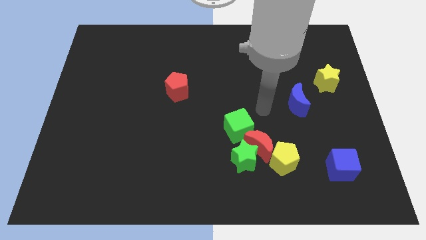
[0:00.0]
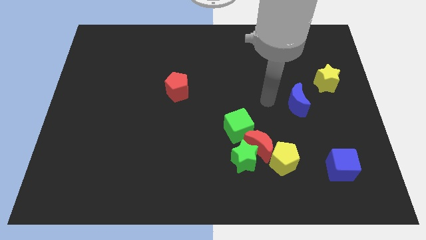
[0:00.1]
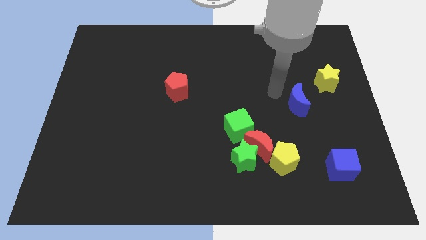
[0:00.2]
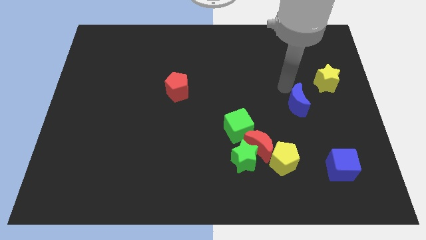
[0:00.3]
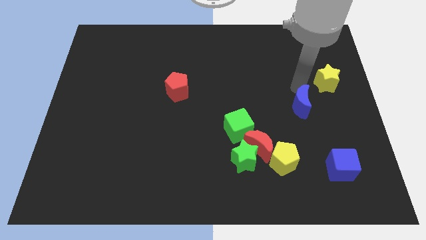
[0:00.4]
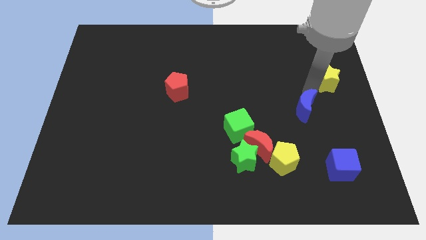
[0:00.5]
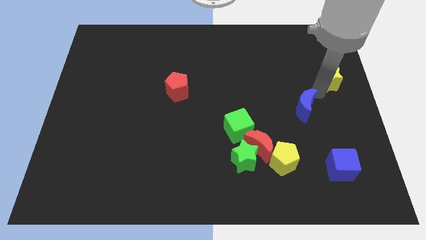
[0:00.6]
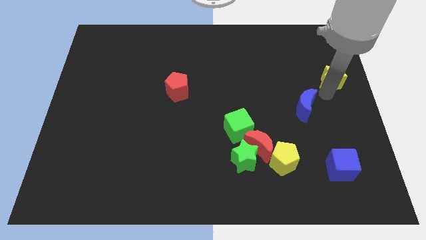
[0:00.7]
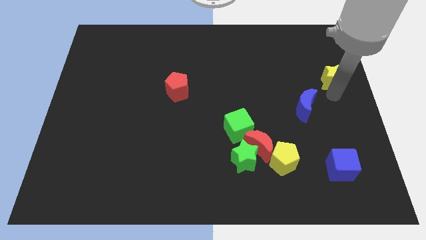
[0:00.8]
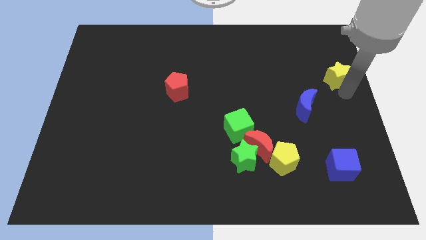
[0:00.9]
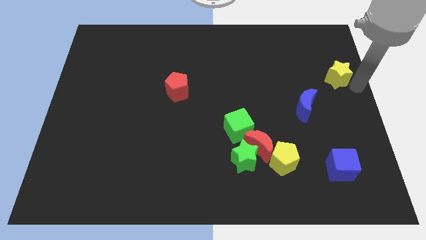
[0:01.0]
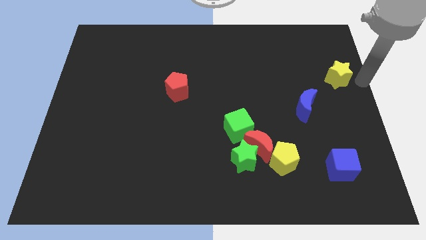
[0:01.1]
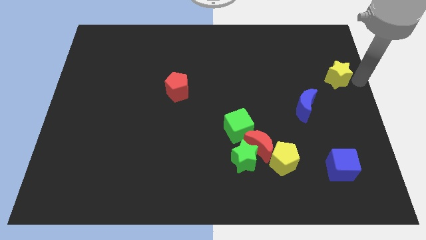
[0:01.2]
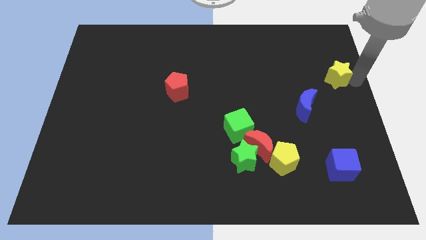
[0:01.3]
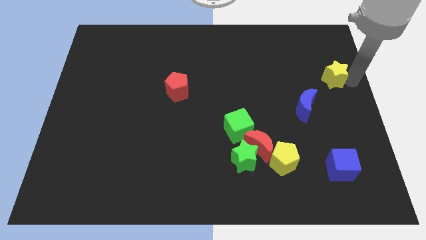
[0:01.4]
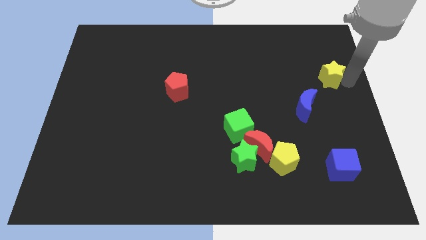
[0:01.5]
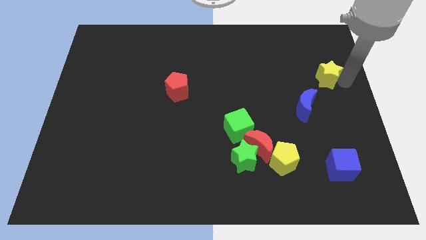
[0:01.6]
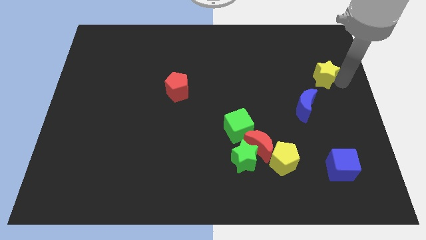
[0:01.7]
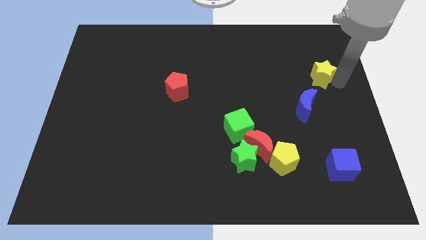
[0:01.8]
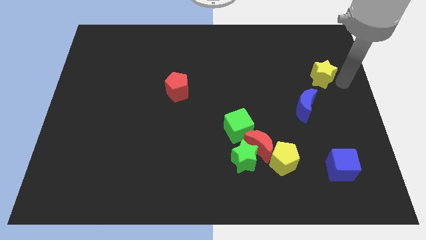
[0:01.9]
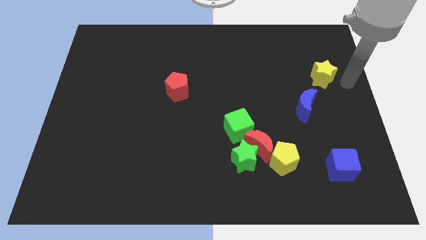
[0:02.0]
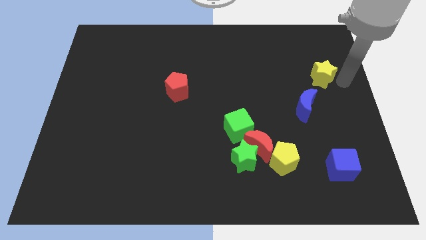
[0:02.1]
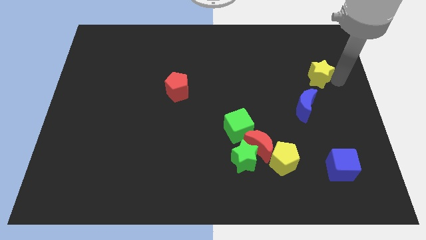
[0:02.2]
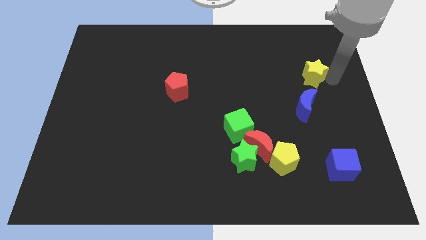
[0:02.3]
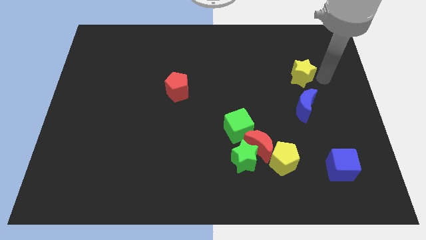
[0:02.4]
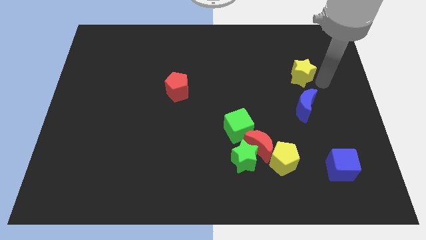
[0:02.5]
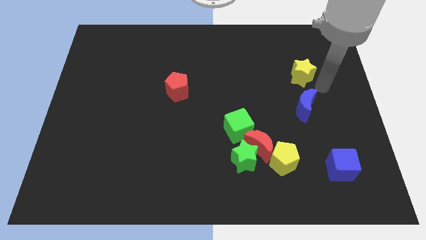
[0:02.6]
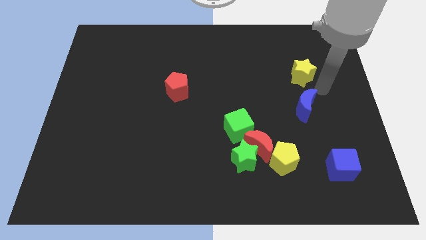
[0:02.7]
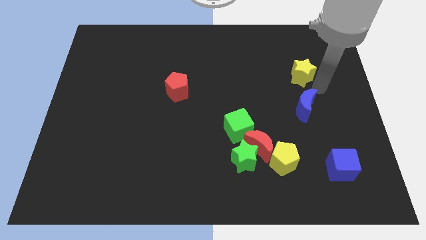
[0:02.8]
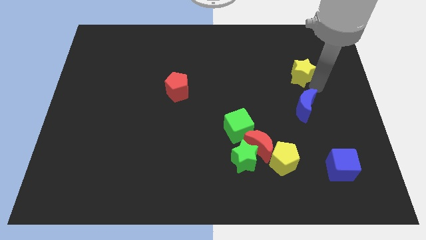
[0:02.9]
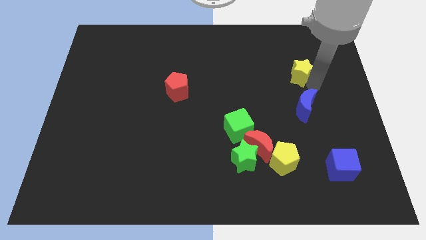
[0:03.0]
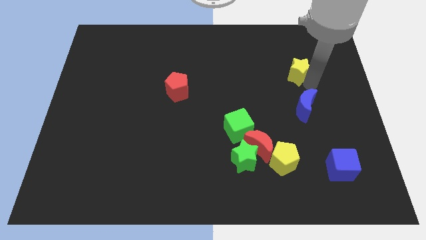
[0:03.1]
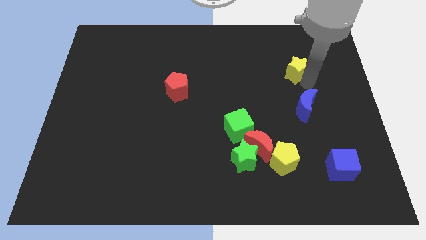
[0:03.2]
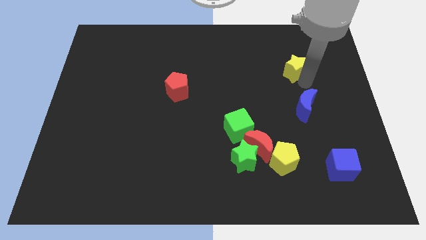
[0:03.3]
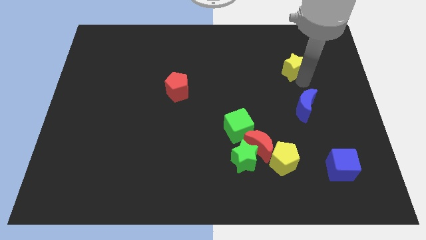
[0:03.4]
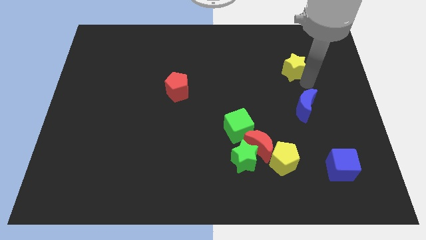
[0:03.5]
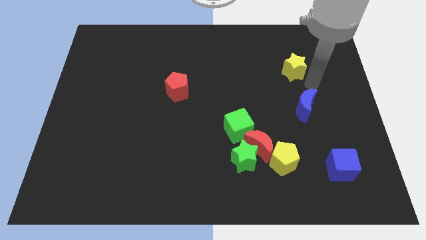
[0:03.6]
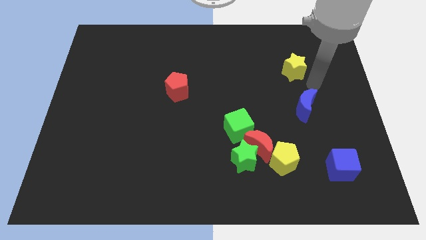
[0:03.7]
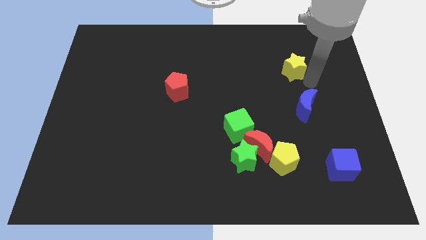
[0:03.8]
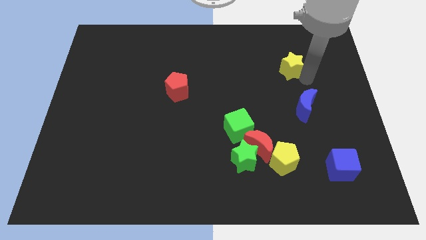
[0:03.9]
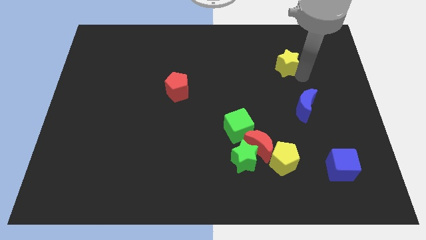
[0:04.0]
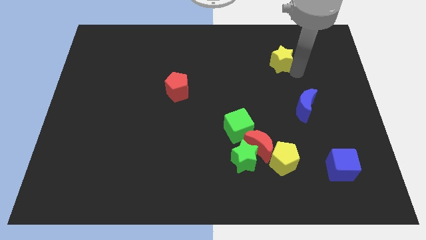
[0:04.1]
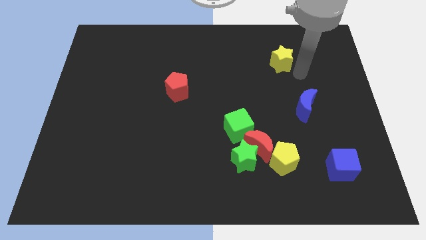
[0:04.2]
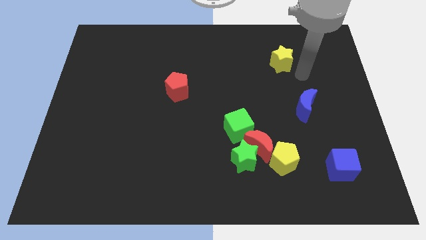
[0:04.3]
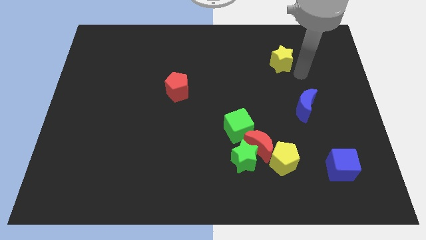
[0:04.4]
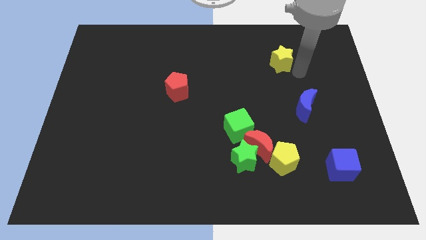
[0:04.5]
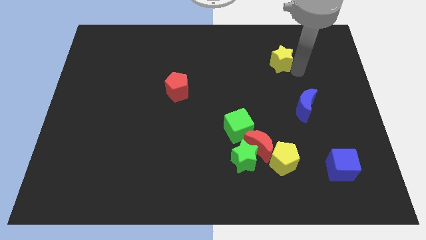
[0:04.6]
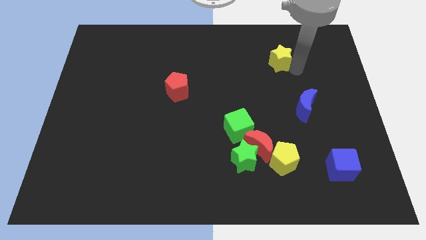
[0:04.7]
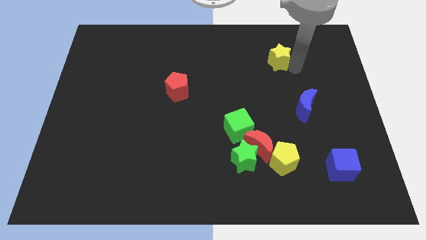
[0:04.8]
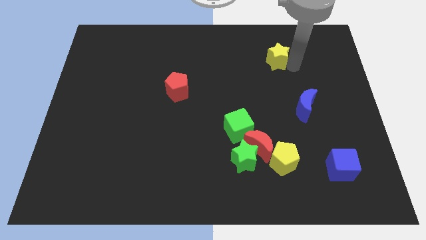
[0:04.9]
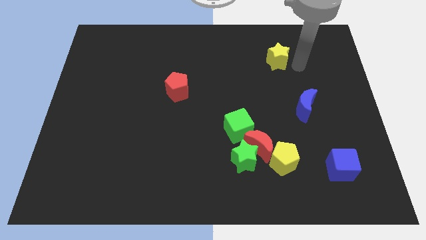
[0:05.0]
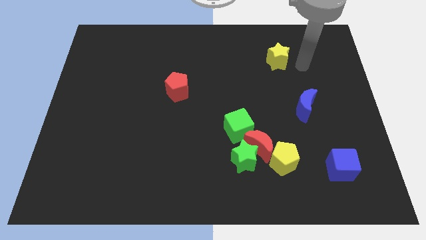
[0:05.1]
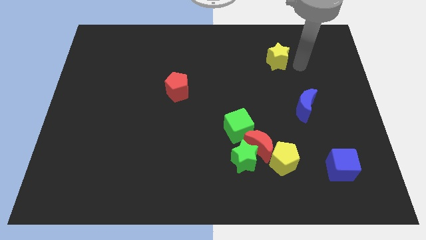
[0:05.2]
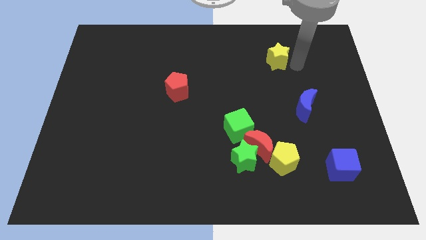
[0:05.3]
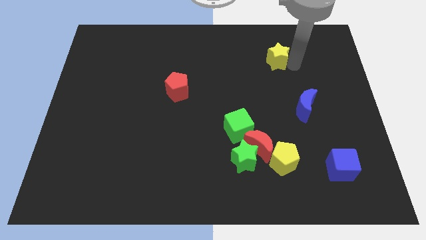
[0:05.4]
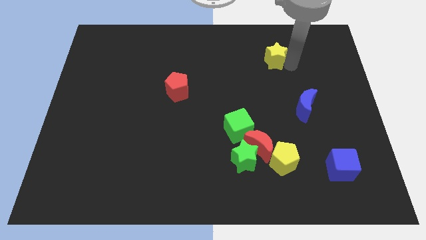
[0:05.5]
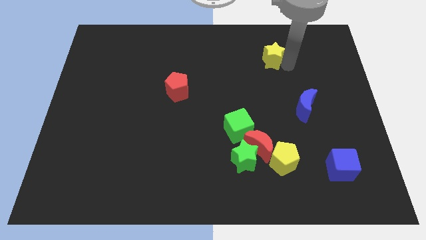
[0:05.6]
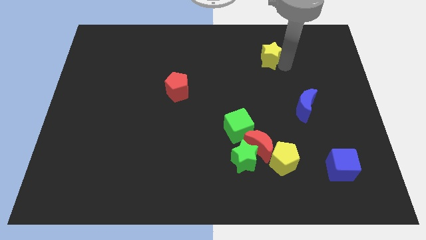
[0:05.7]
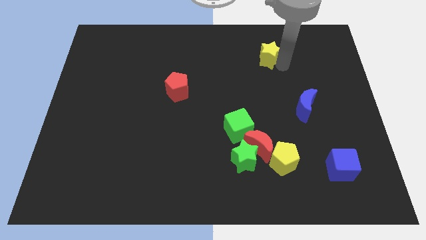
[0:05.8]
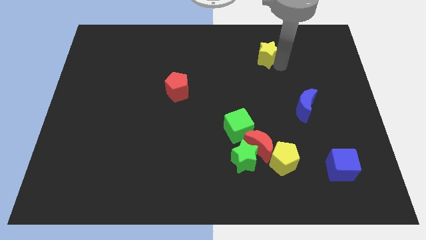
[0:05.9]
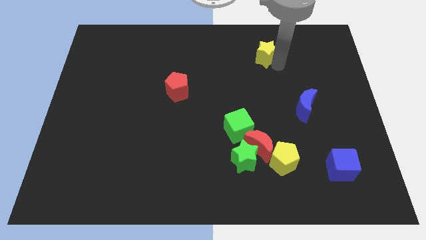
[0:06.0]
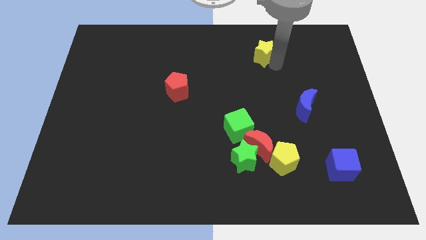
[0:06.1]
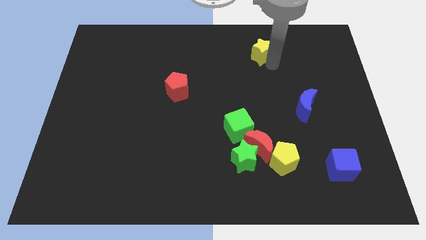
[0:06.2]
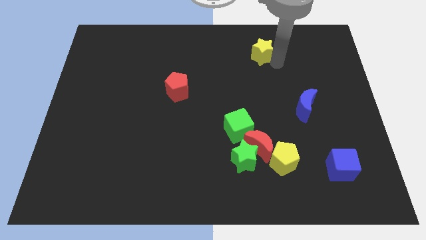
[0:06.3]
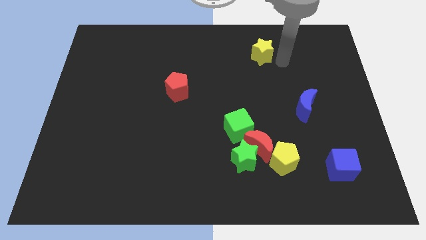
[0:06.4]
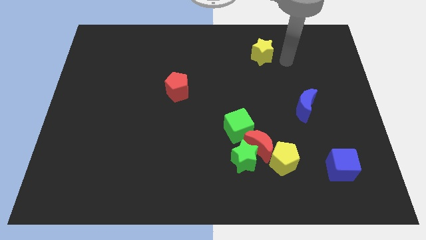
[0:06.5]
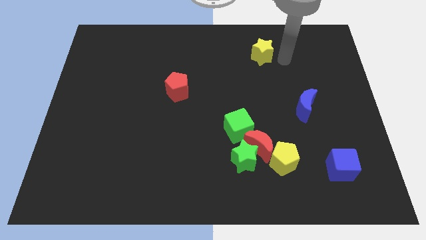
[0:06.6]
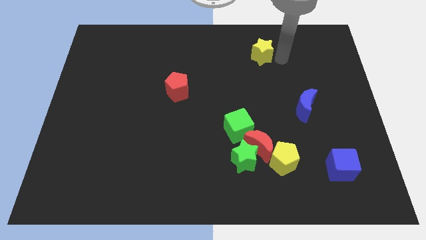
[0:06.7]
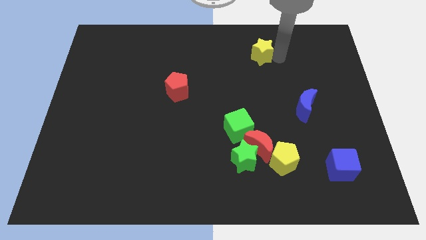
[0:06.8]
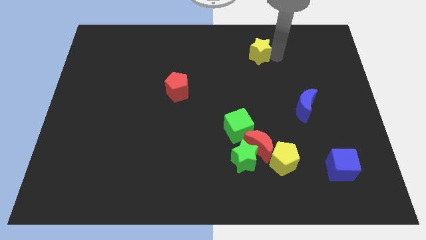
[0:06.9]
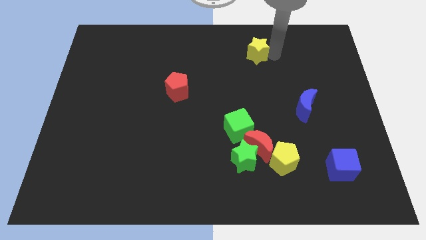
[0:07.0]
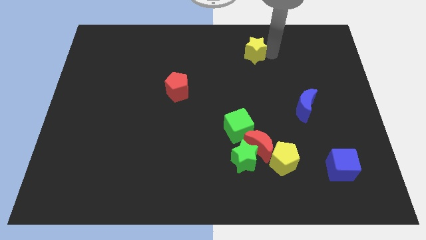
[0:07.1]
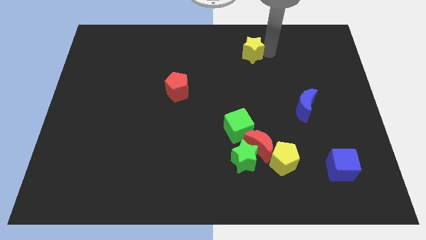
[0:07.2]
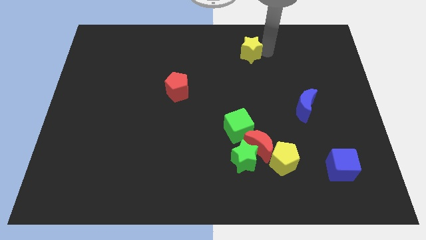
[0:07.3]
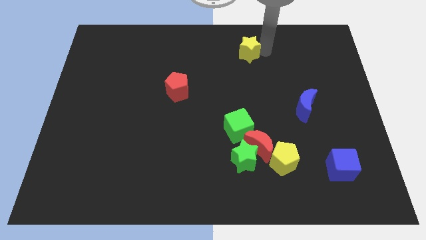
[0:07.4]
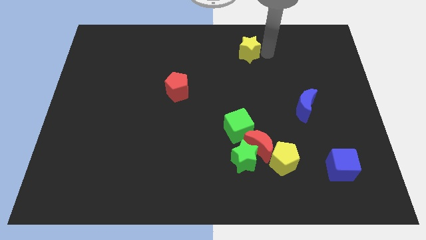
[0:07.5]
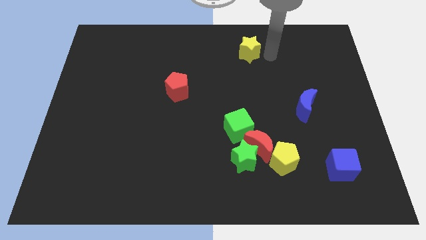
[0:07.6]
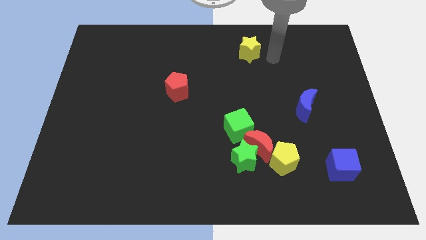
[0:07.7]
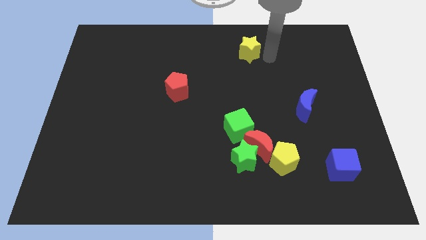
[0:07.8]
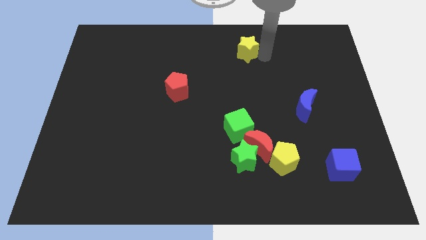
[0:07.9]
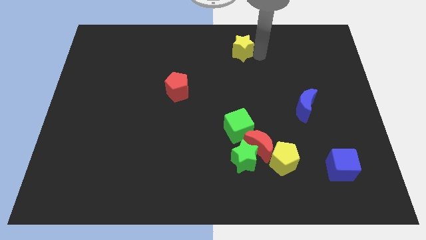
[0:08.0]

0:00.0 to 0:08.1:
push the yellow star to the towards your base

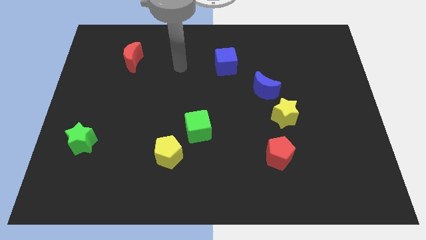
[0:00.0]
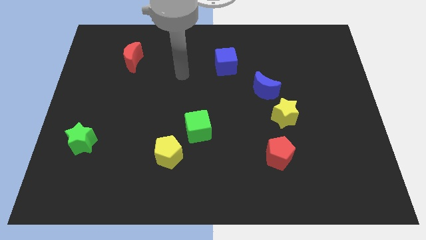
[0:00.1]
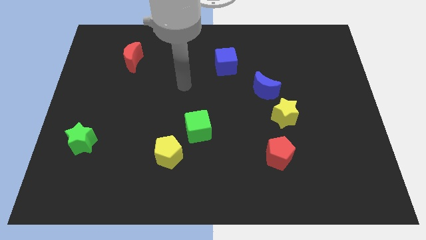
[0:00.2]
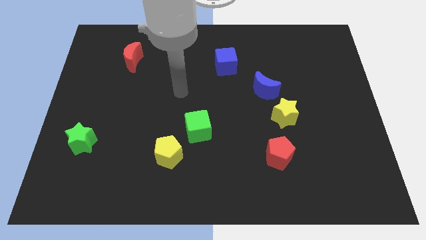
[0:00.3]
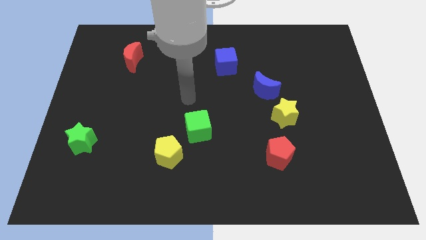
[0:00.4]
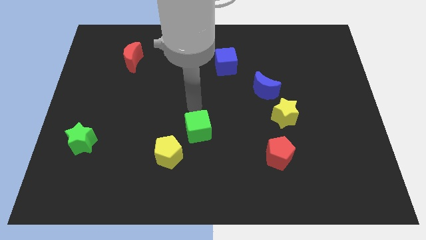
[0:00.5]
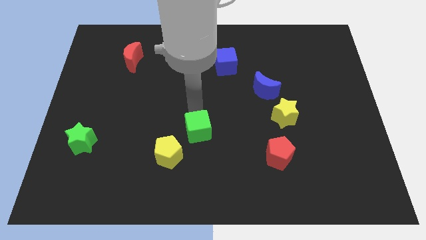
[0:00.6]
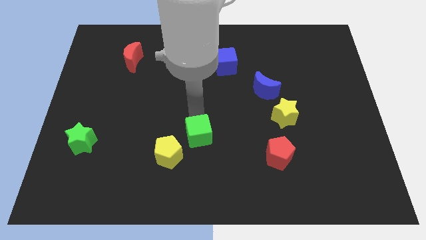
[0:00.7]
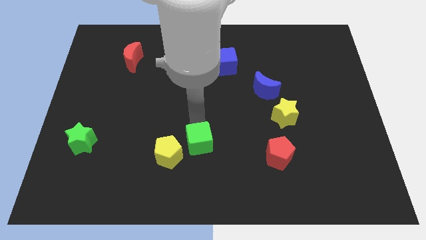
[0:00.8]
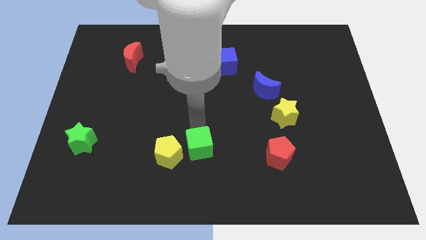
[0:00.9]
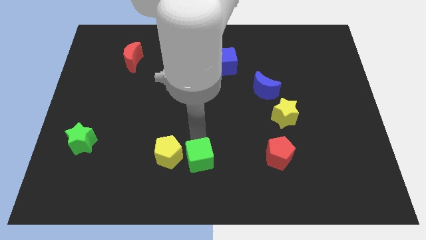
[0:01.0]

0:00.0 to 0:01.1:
move the green cube to the bottom side
